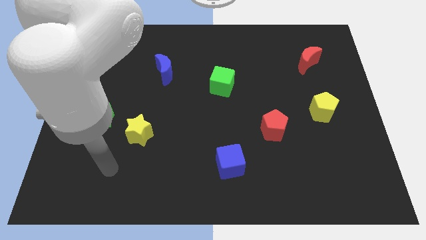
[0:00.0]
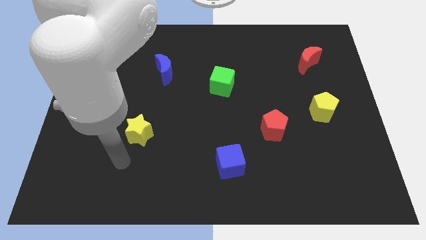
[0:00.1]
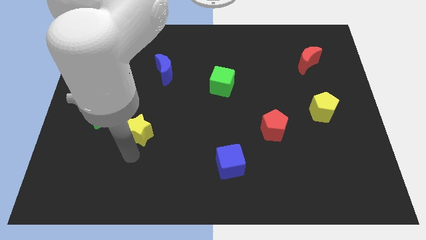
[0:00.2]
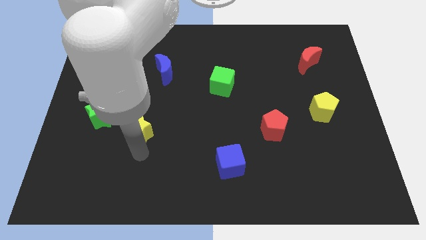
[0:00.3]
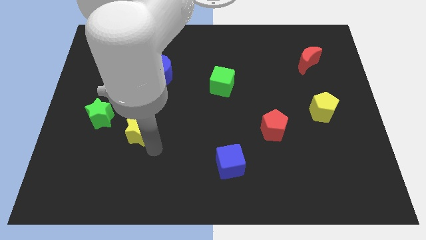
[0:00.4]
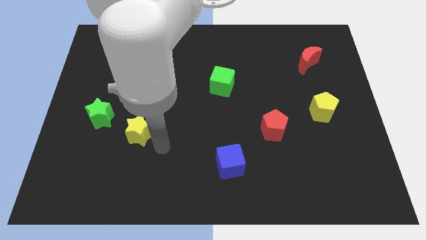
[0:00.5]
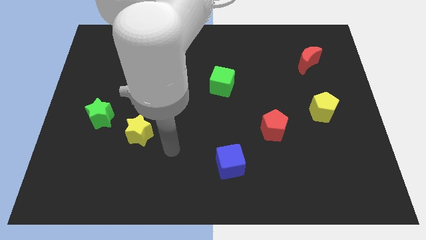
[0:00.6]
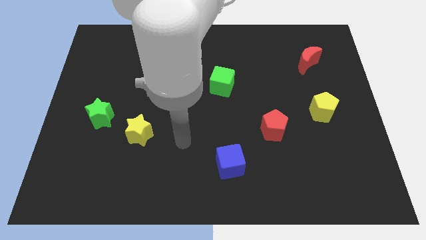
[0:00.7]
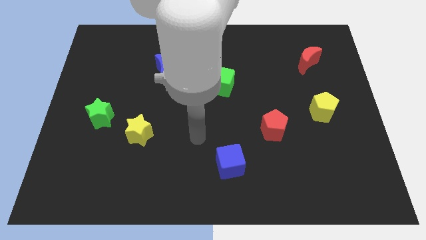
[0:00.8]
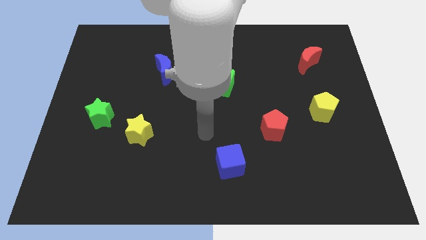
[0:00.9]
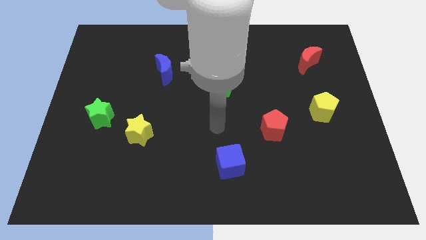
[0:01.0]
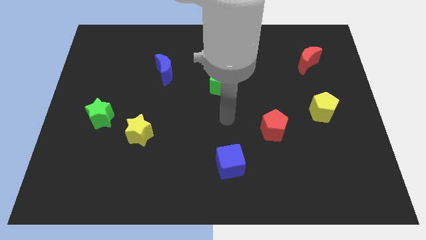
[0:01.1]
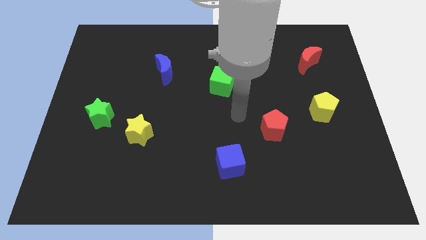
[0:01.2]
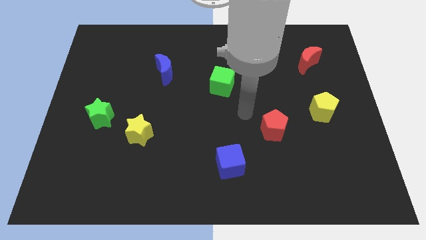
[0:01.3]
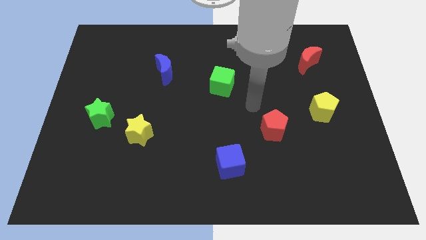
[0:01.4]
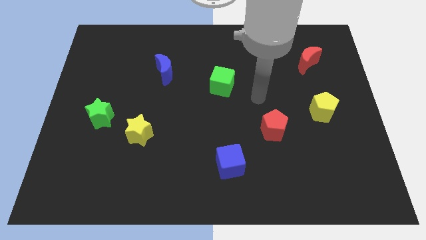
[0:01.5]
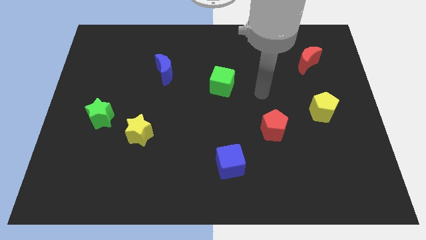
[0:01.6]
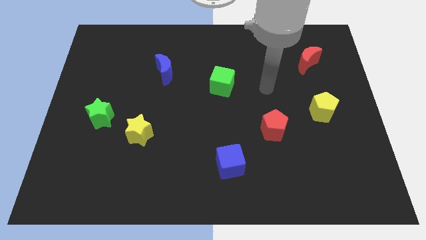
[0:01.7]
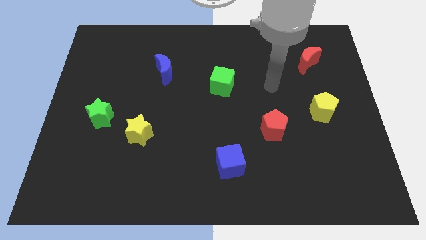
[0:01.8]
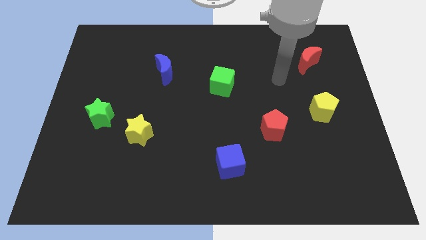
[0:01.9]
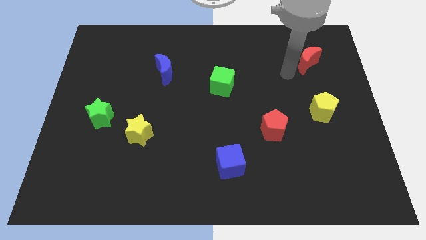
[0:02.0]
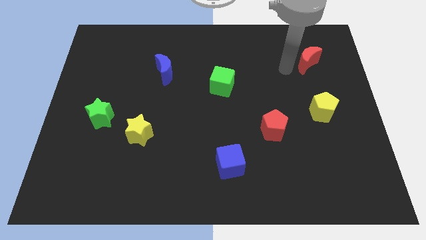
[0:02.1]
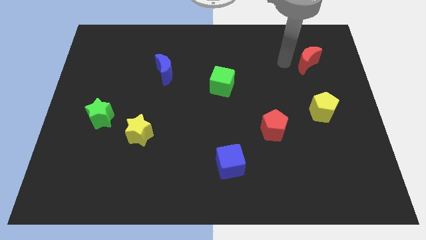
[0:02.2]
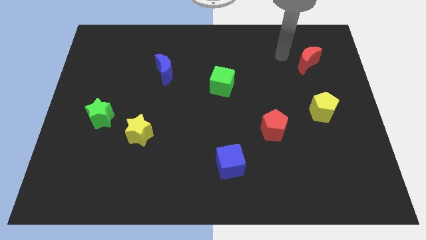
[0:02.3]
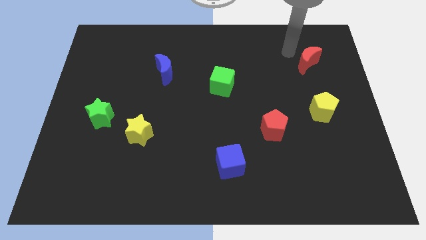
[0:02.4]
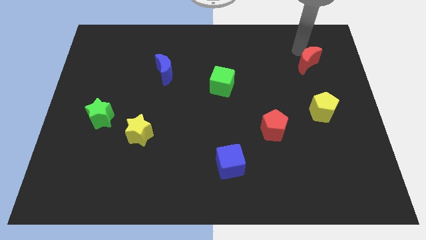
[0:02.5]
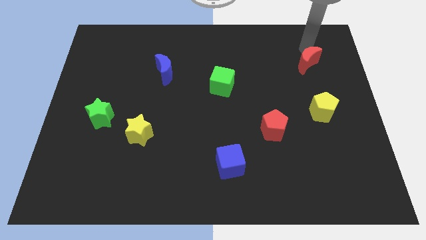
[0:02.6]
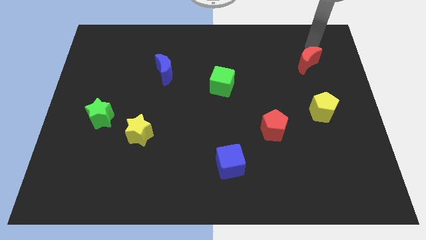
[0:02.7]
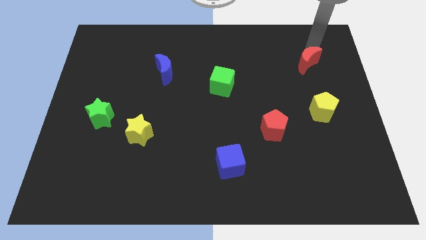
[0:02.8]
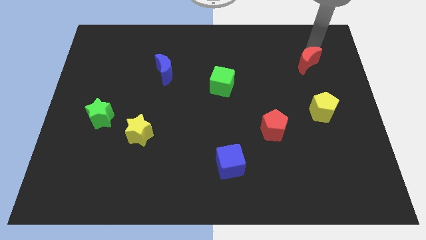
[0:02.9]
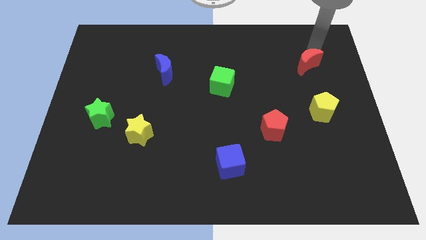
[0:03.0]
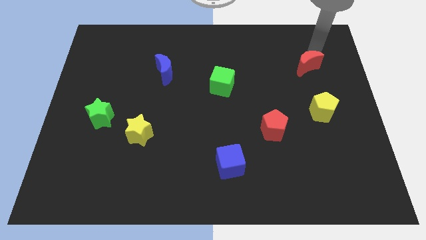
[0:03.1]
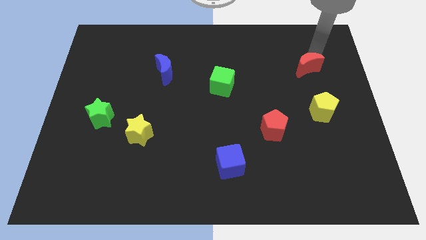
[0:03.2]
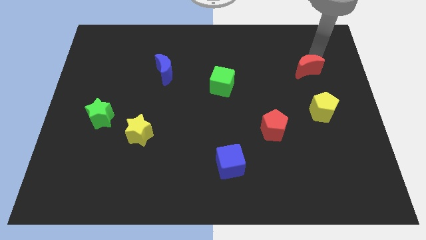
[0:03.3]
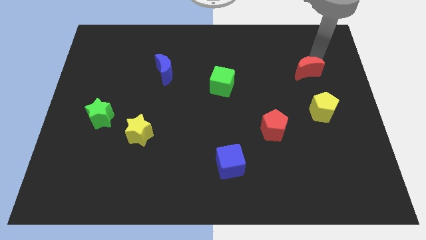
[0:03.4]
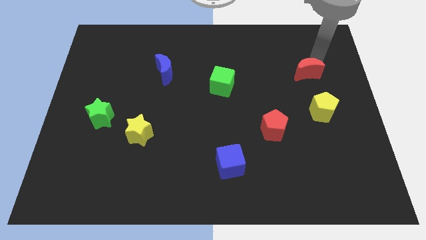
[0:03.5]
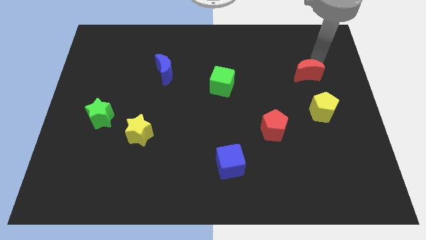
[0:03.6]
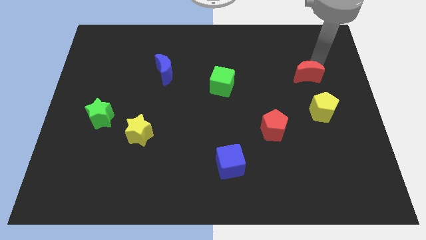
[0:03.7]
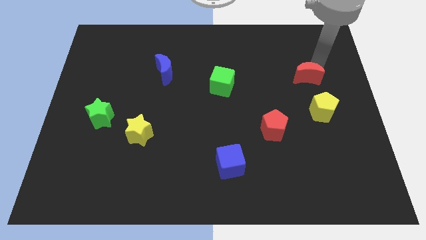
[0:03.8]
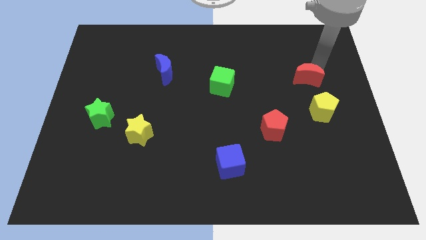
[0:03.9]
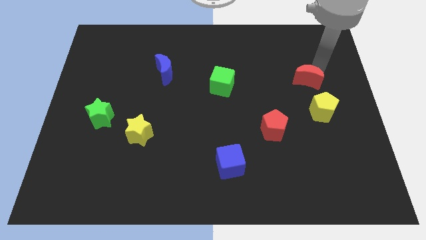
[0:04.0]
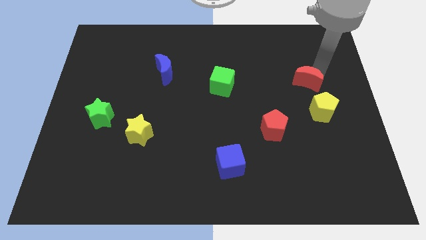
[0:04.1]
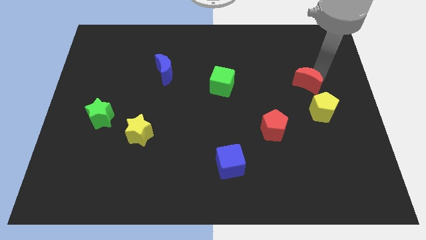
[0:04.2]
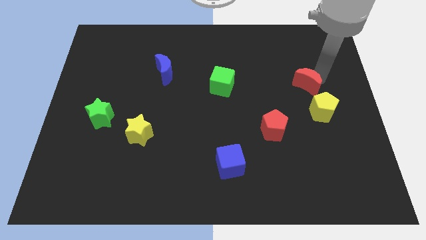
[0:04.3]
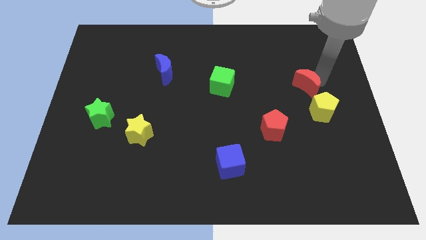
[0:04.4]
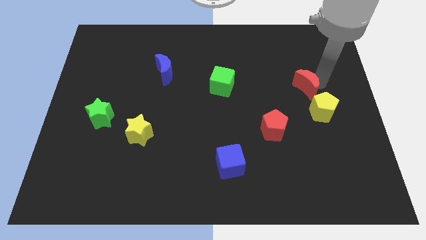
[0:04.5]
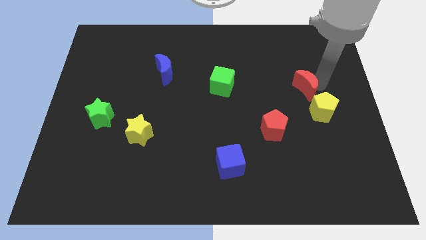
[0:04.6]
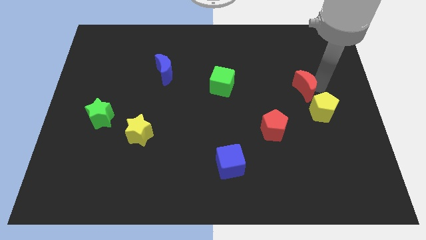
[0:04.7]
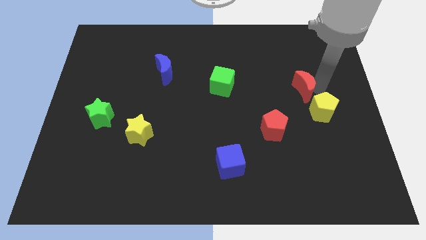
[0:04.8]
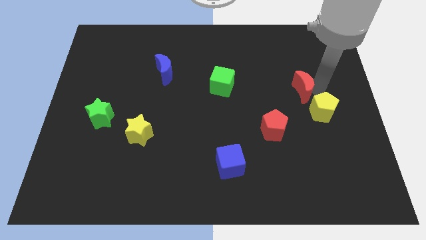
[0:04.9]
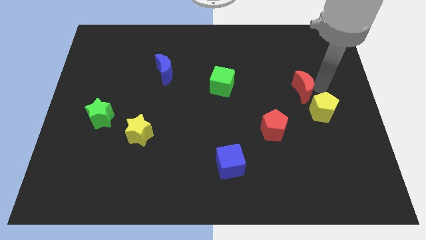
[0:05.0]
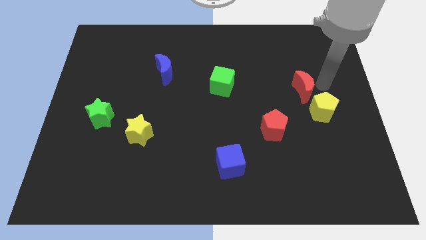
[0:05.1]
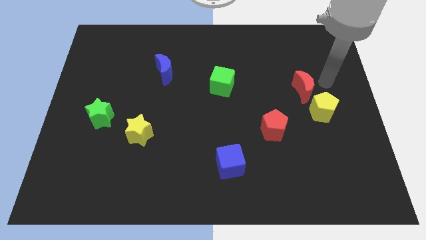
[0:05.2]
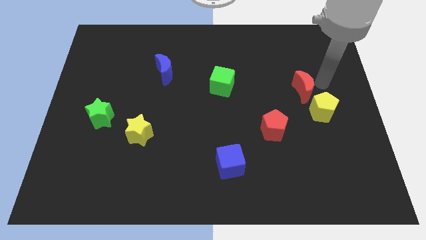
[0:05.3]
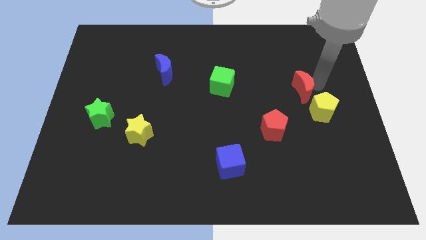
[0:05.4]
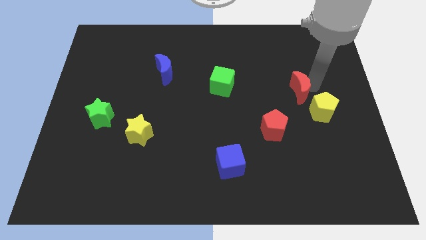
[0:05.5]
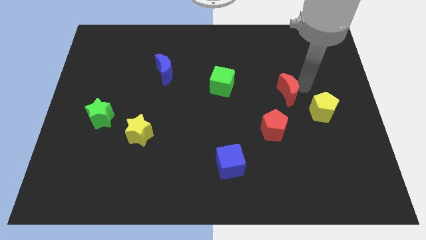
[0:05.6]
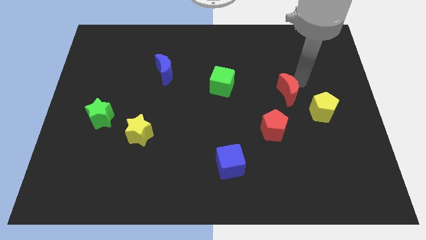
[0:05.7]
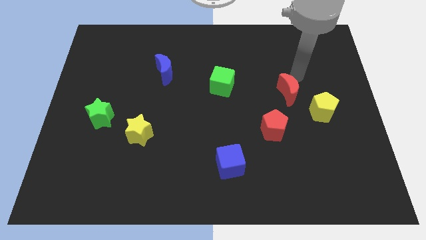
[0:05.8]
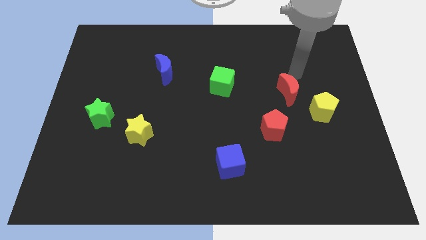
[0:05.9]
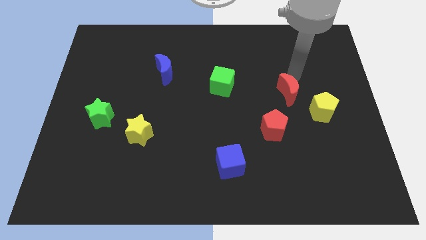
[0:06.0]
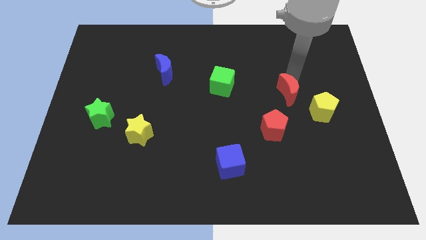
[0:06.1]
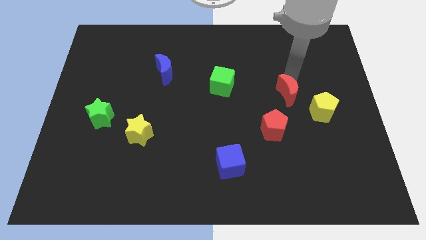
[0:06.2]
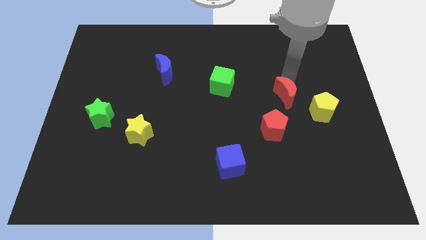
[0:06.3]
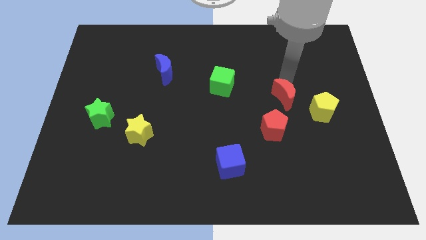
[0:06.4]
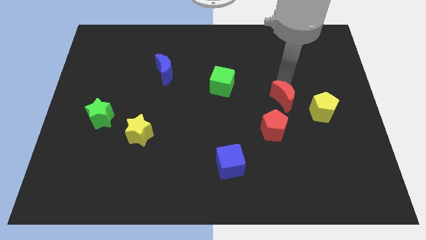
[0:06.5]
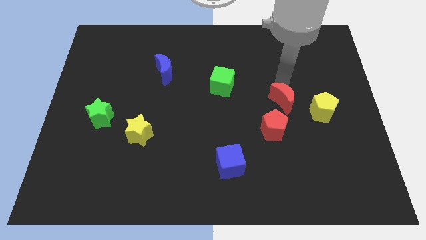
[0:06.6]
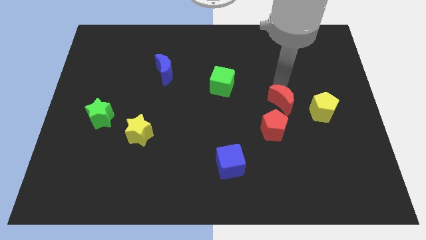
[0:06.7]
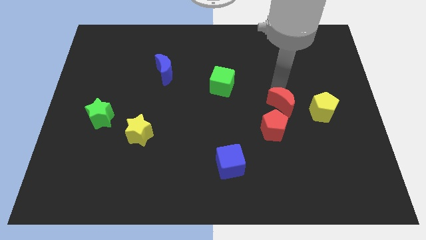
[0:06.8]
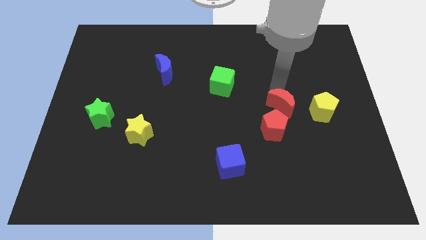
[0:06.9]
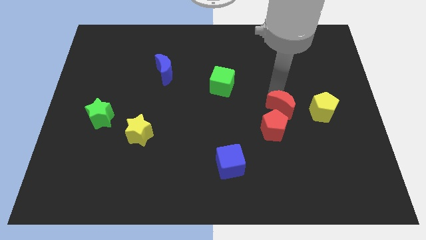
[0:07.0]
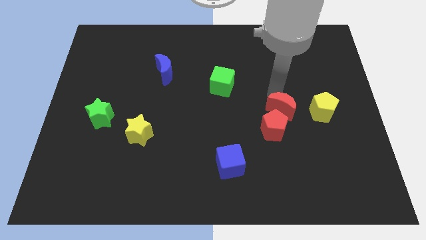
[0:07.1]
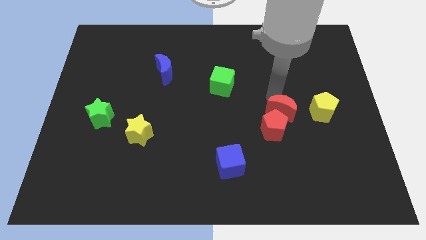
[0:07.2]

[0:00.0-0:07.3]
move the red moon towards the red pentagon
